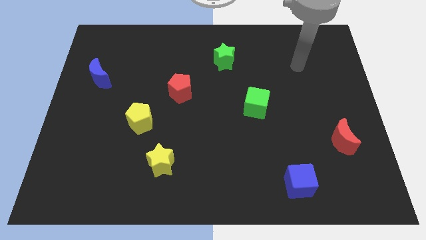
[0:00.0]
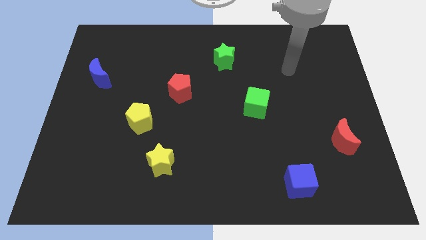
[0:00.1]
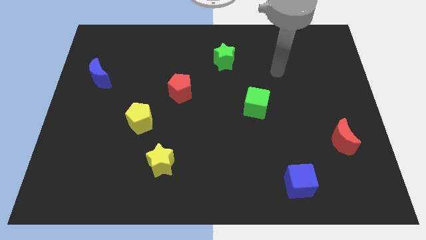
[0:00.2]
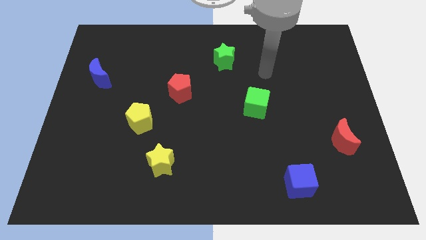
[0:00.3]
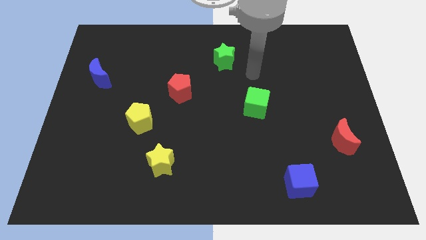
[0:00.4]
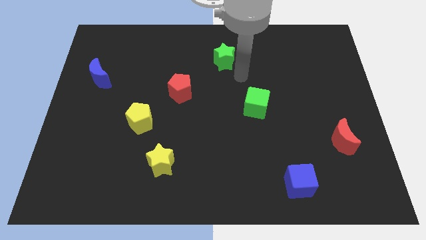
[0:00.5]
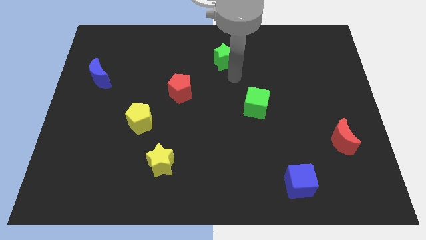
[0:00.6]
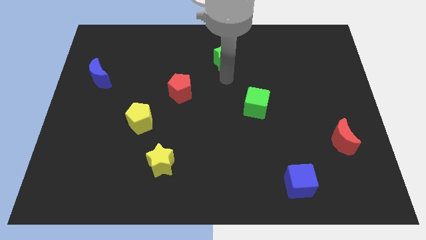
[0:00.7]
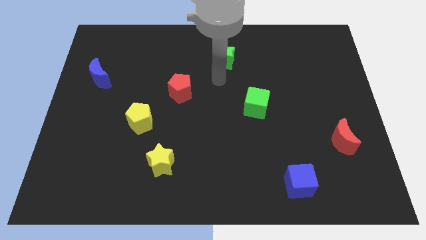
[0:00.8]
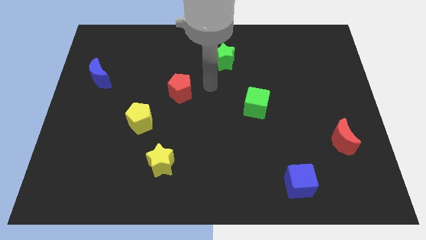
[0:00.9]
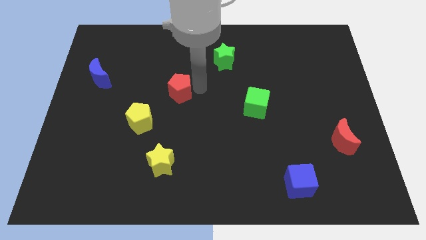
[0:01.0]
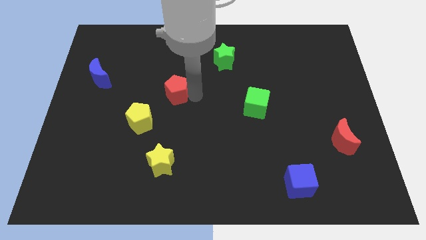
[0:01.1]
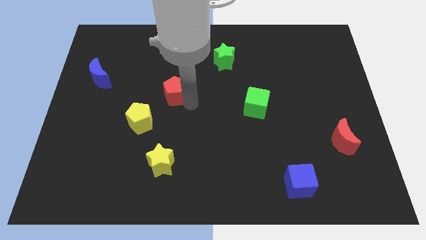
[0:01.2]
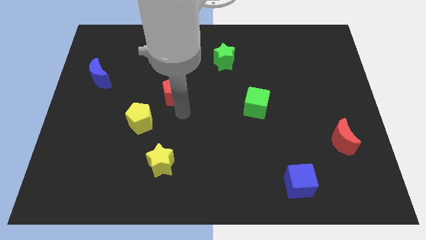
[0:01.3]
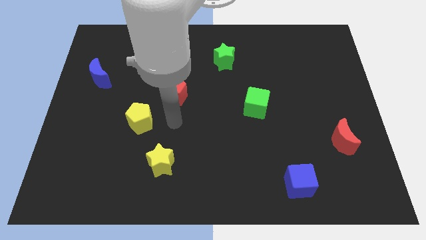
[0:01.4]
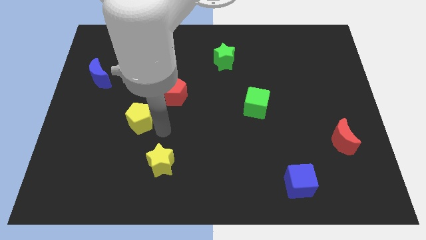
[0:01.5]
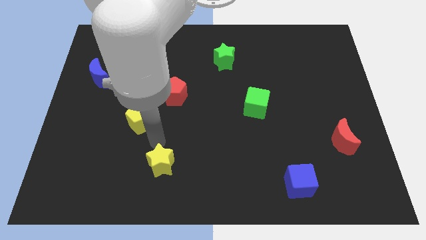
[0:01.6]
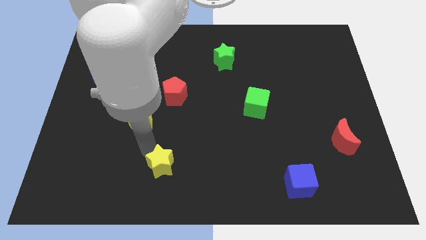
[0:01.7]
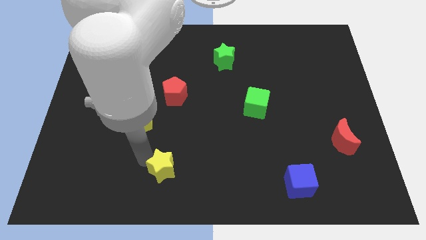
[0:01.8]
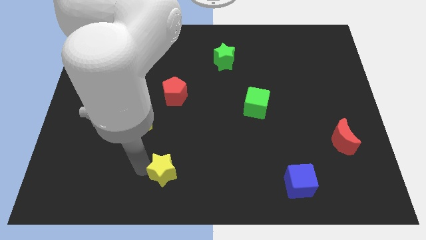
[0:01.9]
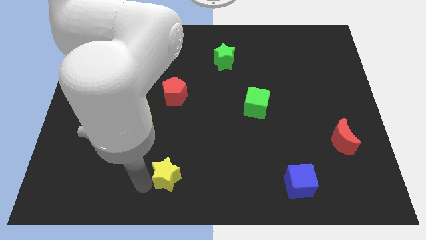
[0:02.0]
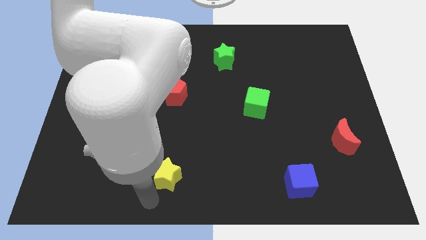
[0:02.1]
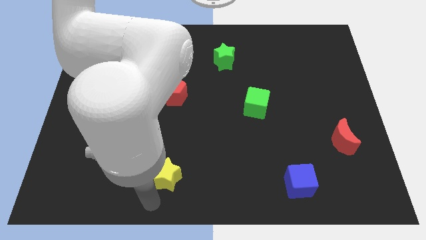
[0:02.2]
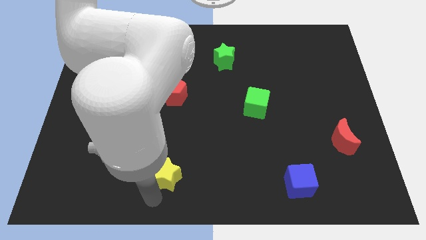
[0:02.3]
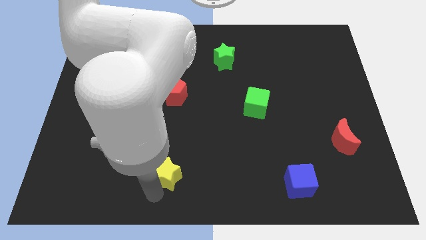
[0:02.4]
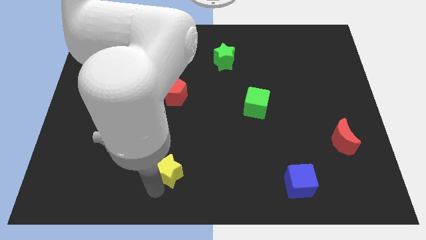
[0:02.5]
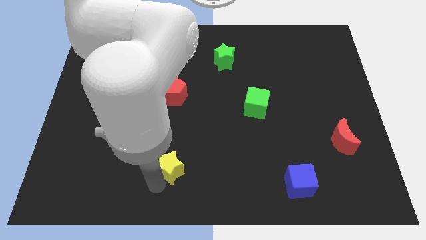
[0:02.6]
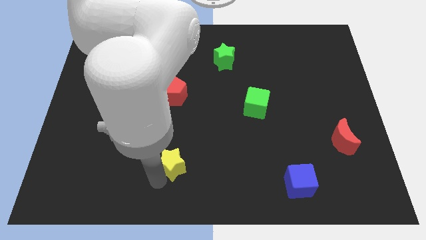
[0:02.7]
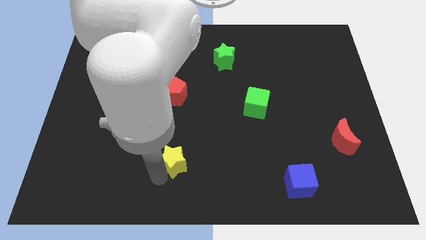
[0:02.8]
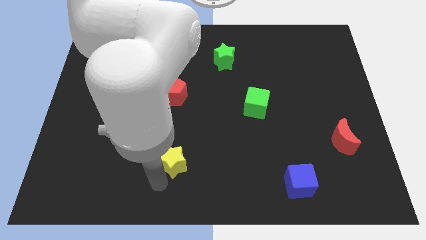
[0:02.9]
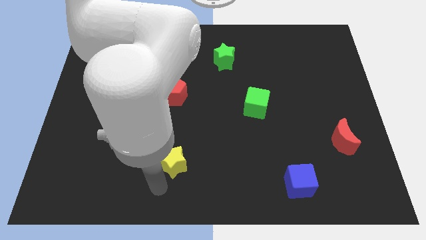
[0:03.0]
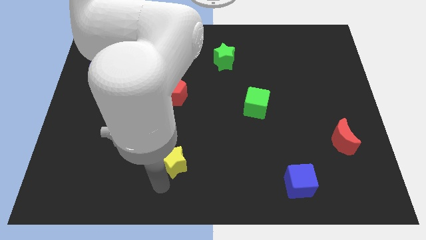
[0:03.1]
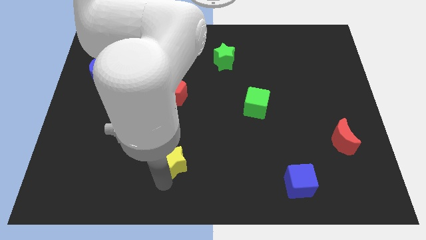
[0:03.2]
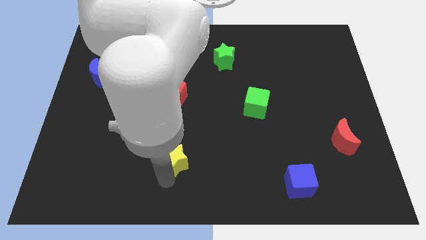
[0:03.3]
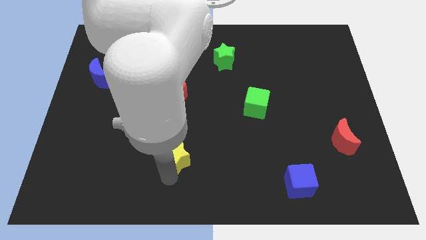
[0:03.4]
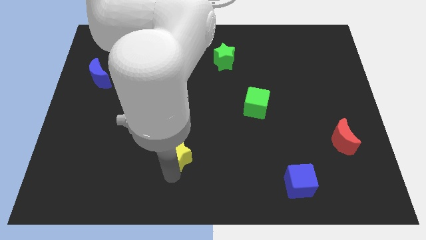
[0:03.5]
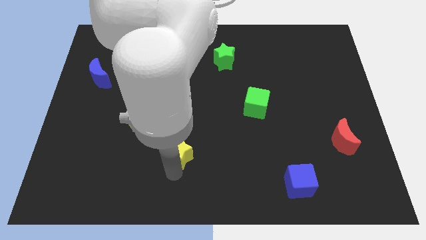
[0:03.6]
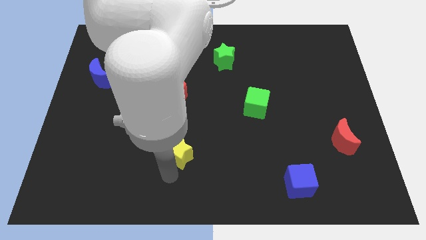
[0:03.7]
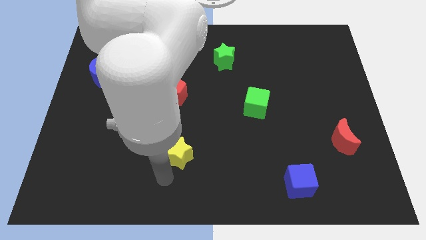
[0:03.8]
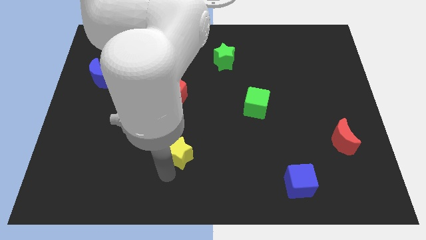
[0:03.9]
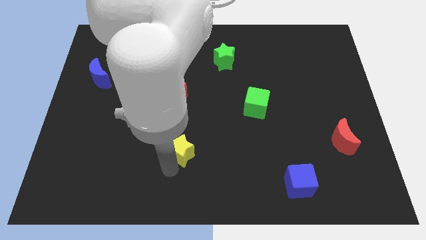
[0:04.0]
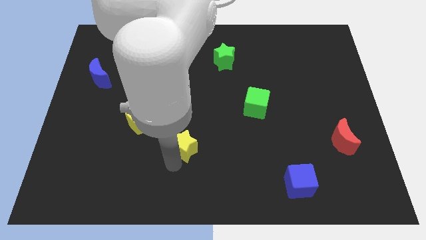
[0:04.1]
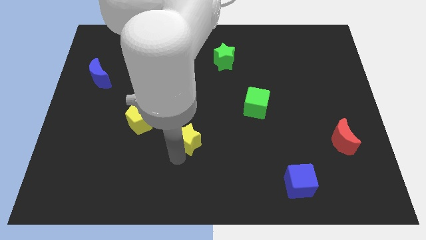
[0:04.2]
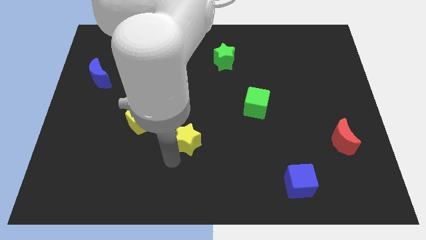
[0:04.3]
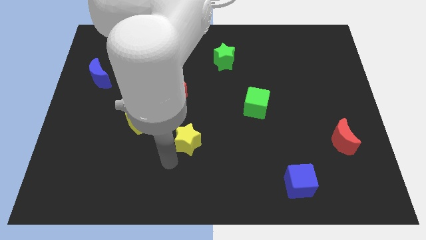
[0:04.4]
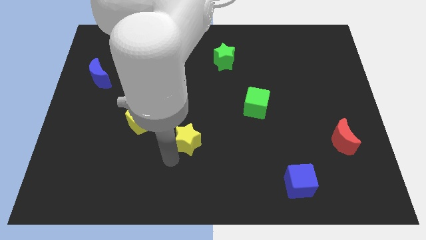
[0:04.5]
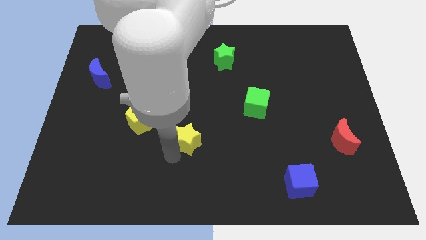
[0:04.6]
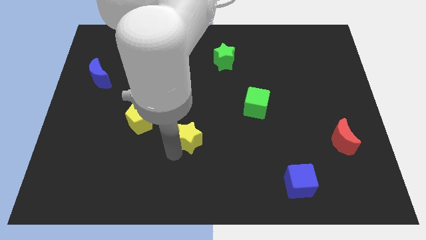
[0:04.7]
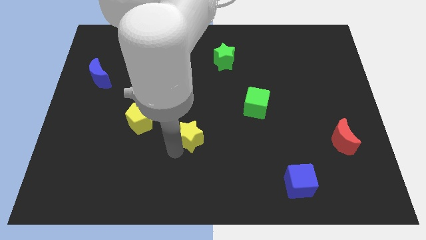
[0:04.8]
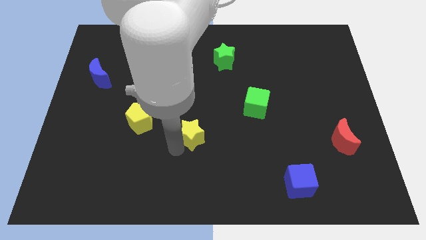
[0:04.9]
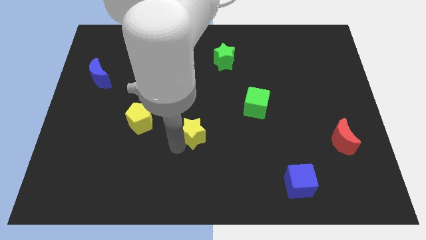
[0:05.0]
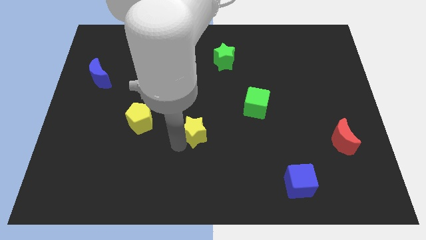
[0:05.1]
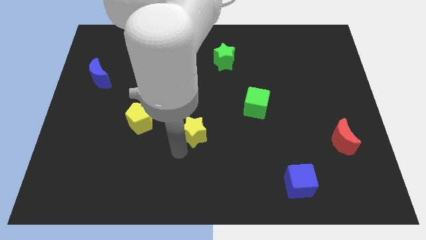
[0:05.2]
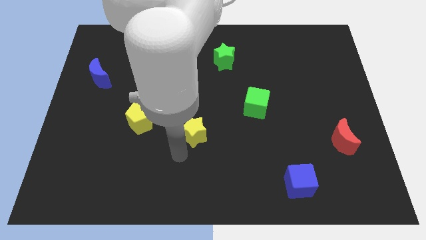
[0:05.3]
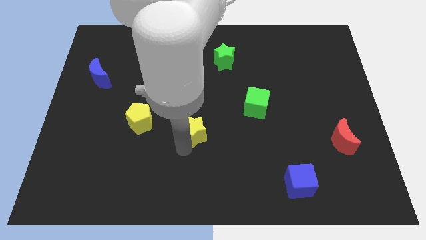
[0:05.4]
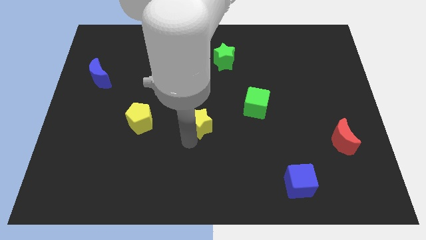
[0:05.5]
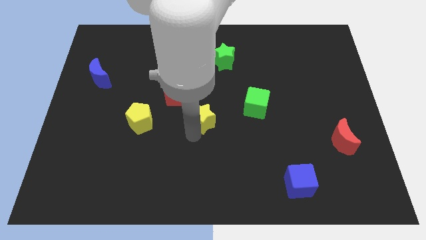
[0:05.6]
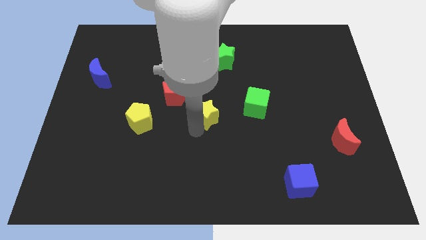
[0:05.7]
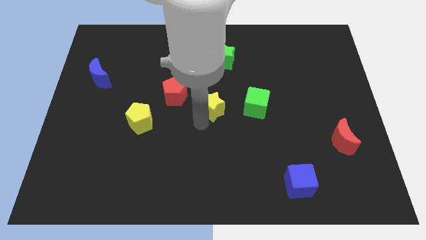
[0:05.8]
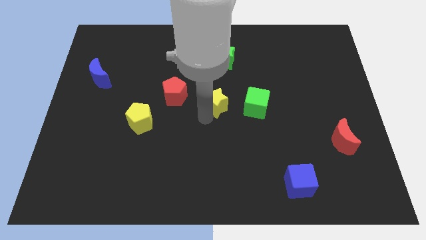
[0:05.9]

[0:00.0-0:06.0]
push the yellow star to the bottom side of the green star
